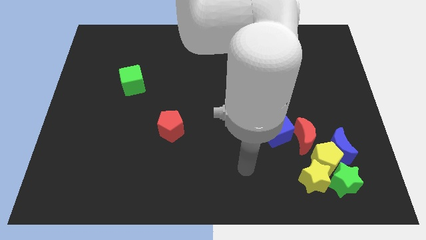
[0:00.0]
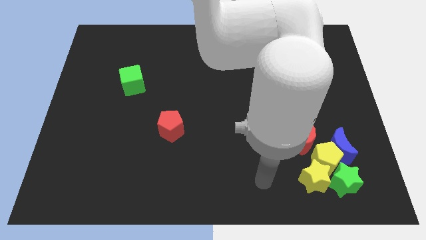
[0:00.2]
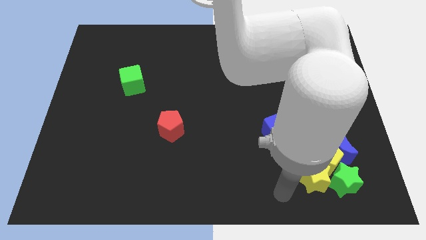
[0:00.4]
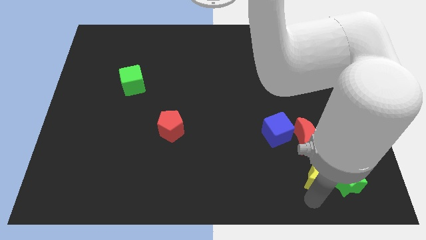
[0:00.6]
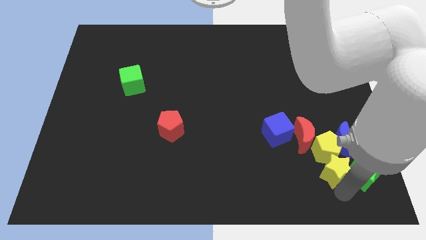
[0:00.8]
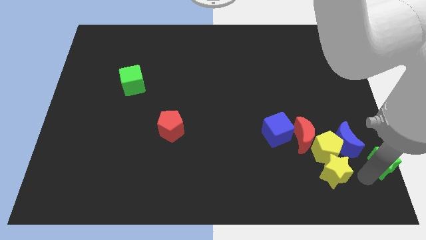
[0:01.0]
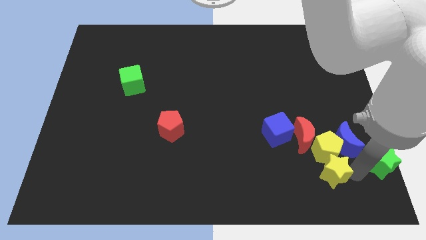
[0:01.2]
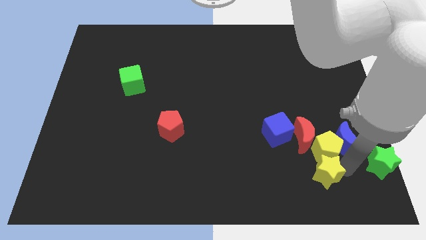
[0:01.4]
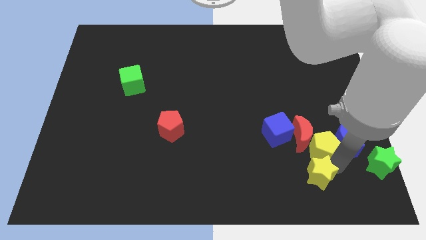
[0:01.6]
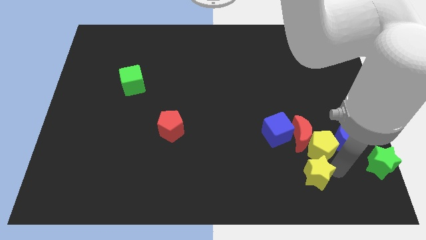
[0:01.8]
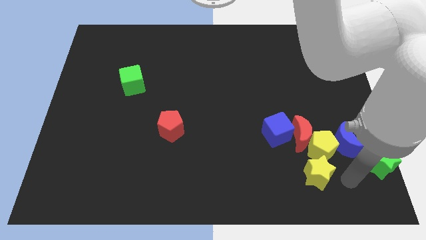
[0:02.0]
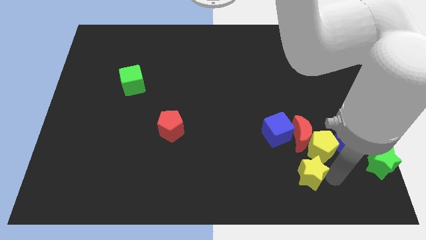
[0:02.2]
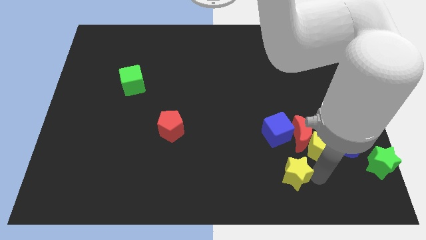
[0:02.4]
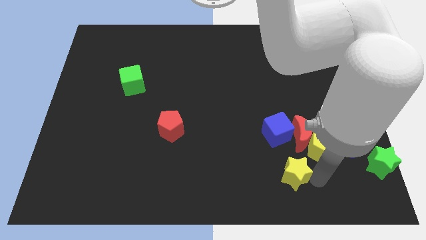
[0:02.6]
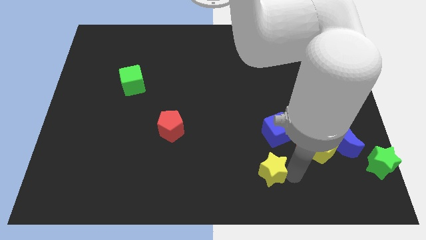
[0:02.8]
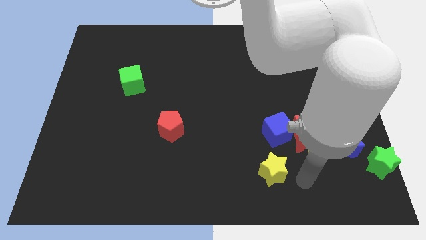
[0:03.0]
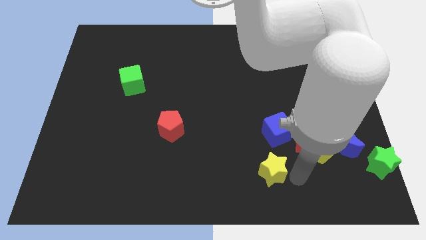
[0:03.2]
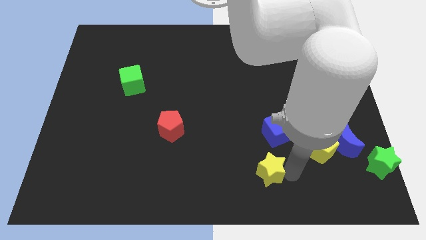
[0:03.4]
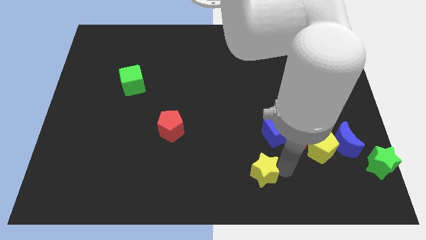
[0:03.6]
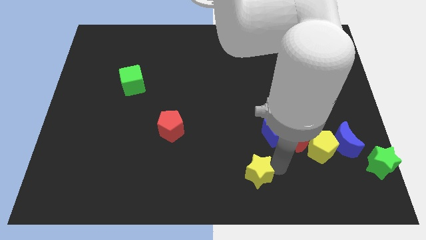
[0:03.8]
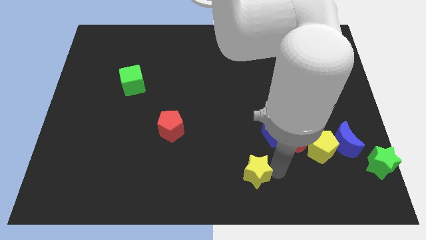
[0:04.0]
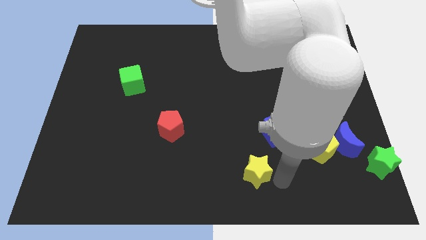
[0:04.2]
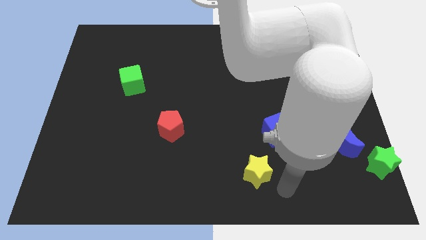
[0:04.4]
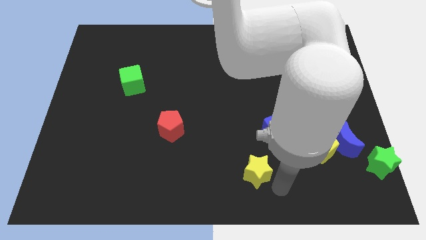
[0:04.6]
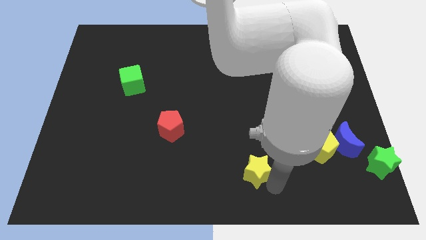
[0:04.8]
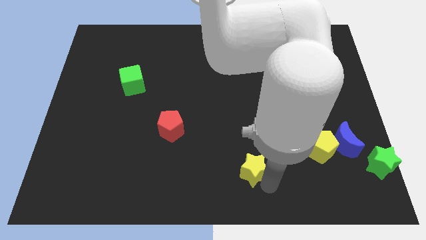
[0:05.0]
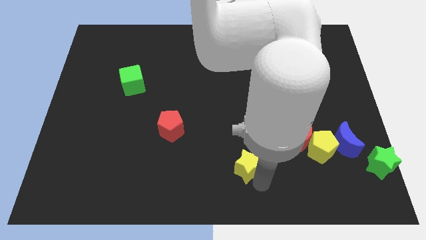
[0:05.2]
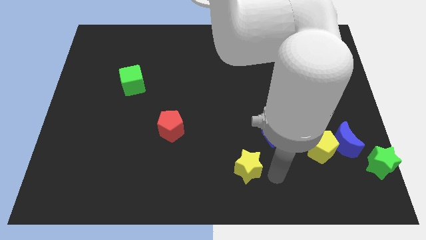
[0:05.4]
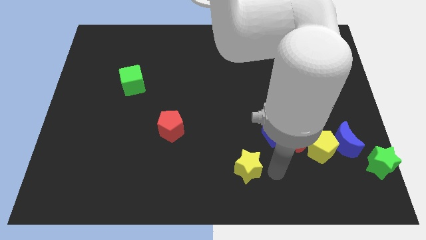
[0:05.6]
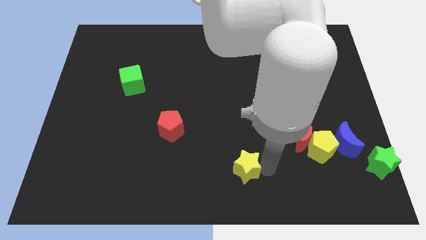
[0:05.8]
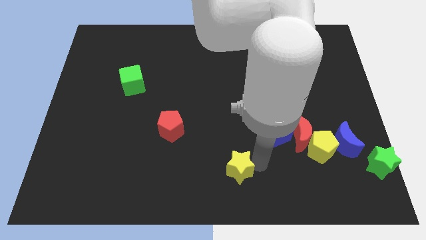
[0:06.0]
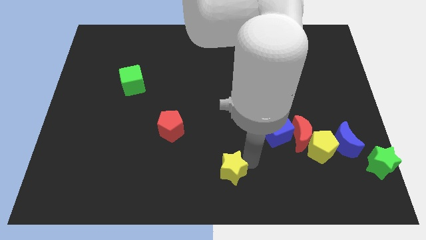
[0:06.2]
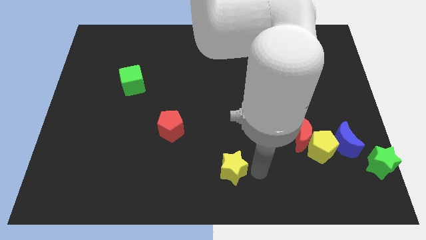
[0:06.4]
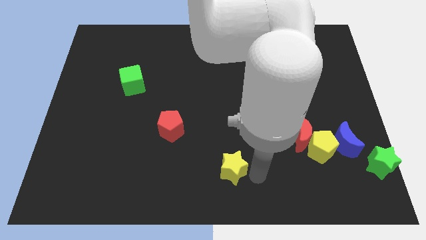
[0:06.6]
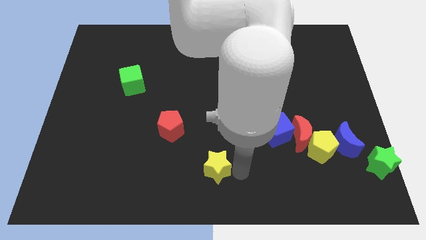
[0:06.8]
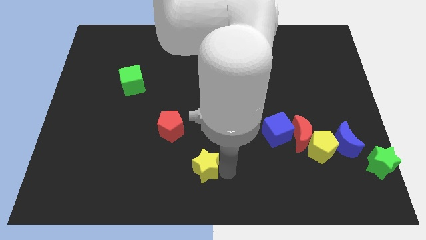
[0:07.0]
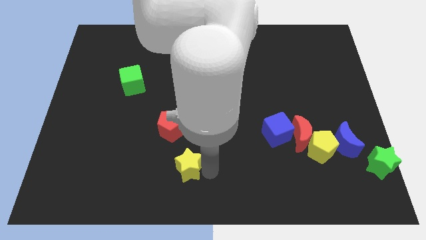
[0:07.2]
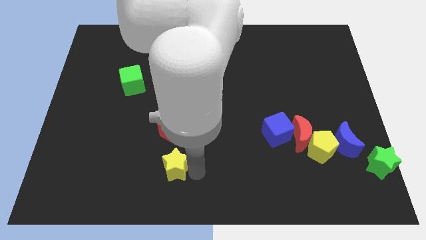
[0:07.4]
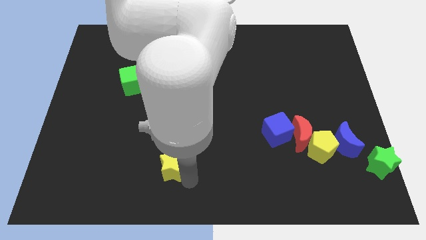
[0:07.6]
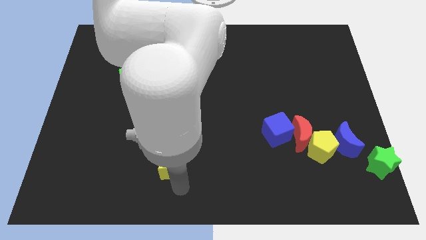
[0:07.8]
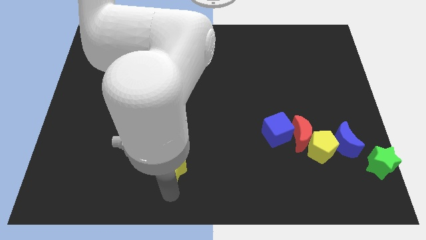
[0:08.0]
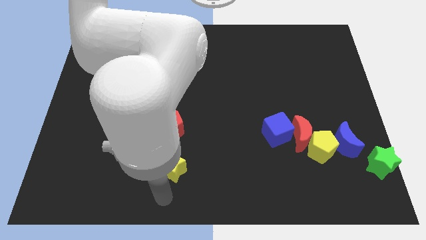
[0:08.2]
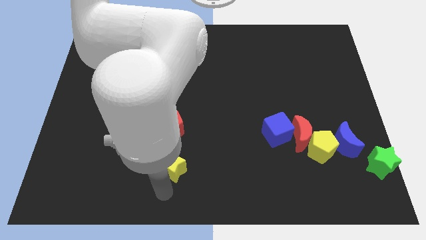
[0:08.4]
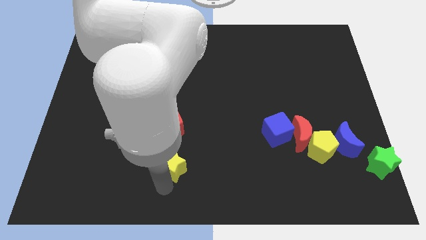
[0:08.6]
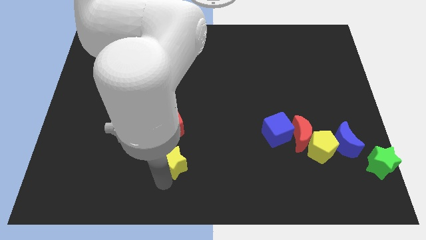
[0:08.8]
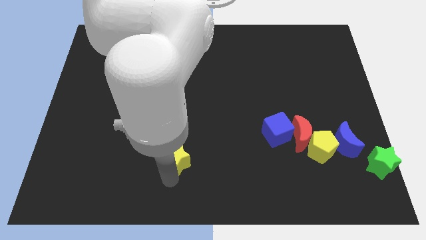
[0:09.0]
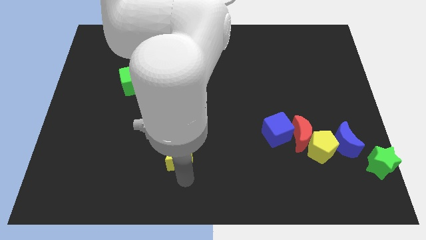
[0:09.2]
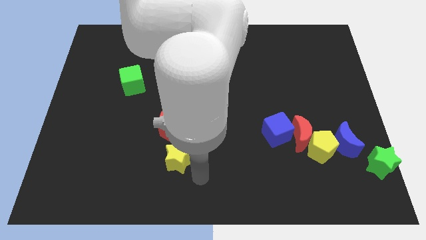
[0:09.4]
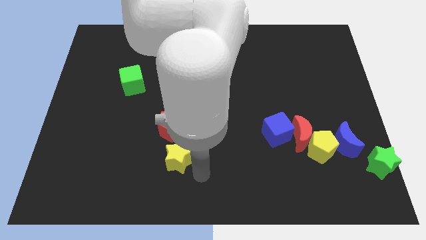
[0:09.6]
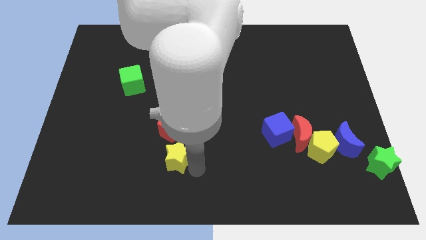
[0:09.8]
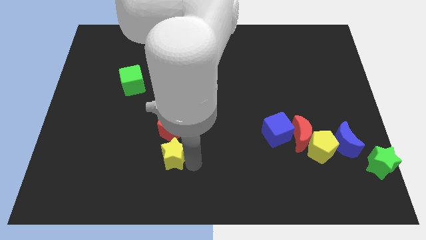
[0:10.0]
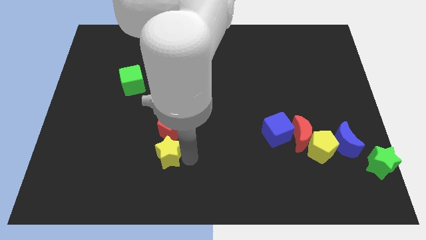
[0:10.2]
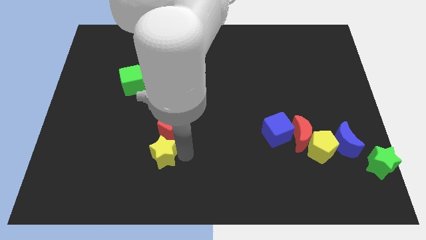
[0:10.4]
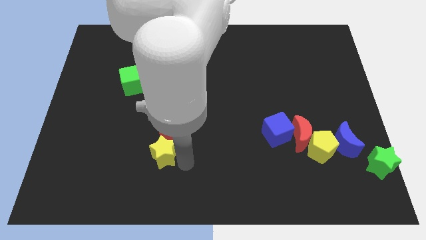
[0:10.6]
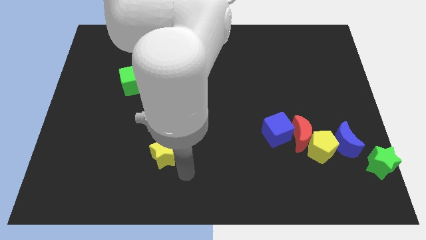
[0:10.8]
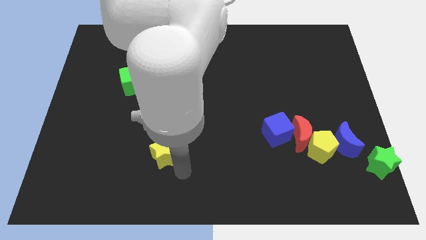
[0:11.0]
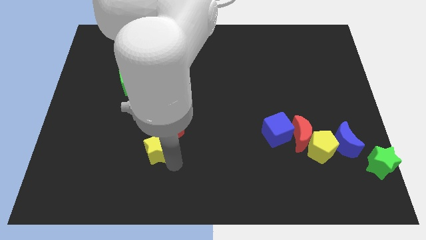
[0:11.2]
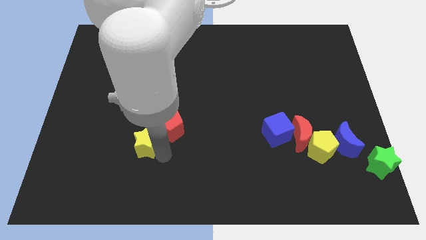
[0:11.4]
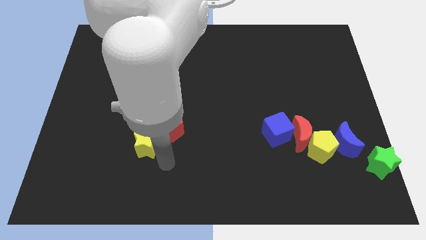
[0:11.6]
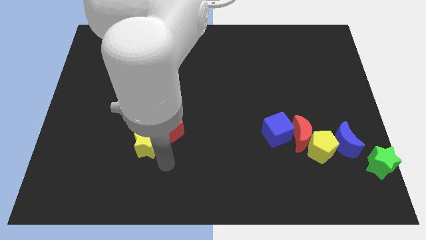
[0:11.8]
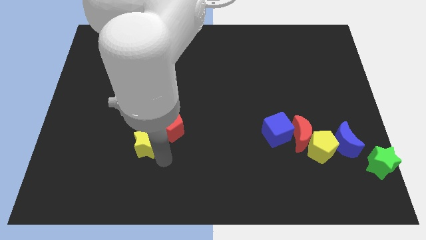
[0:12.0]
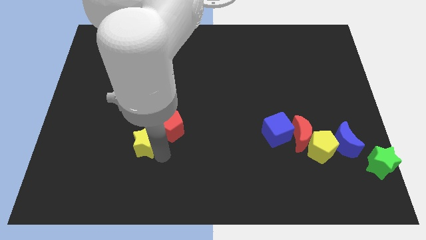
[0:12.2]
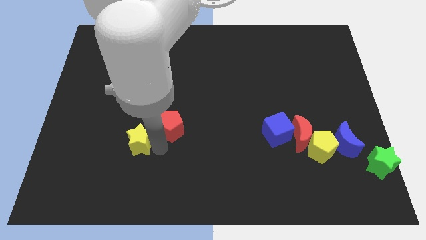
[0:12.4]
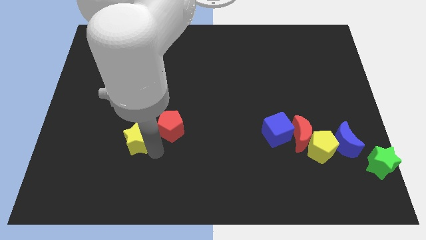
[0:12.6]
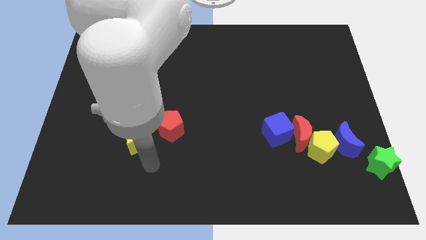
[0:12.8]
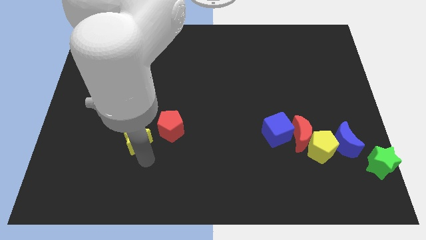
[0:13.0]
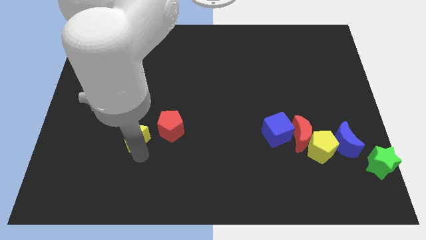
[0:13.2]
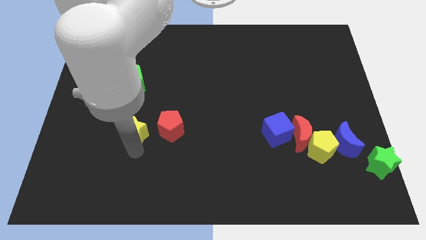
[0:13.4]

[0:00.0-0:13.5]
push the yellow star to the bottom side of the green cube
